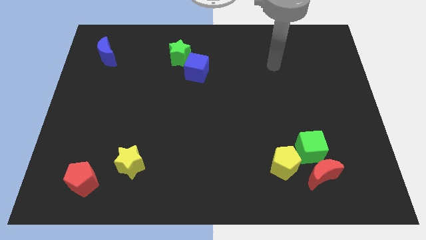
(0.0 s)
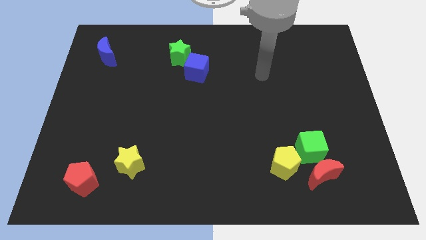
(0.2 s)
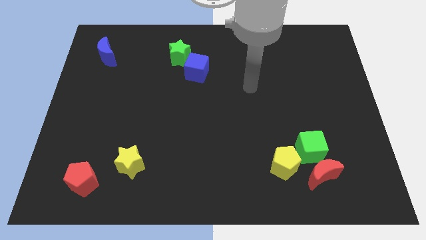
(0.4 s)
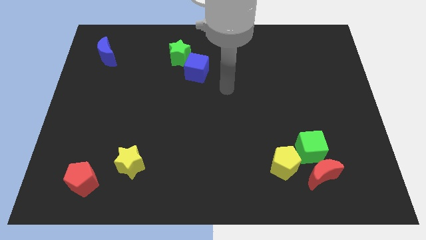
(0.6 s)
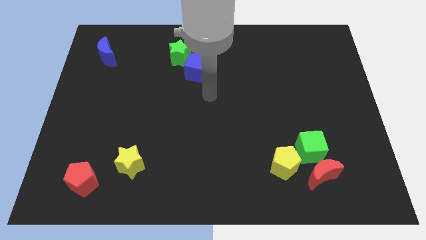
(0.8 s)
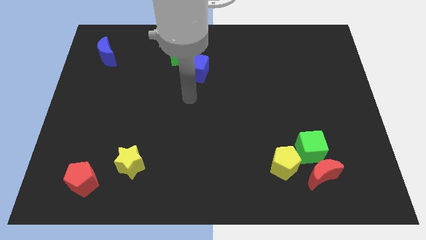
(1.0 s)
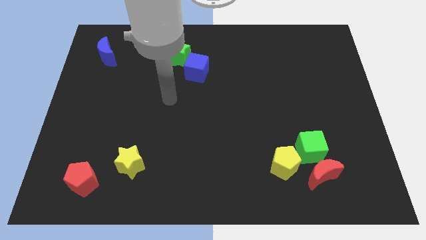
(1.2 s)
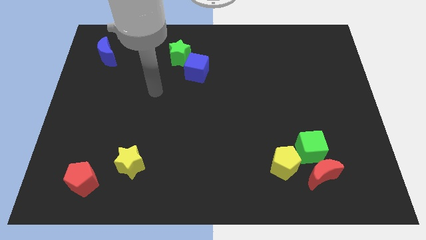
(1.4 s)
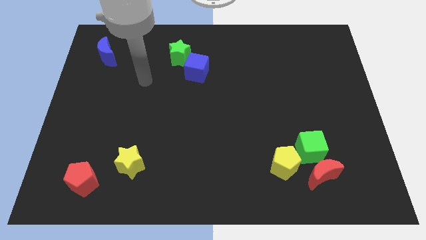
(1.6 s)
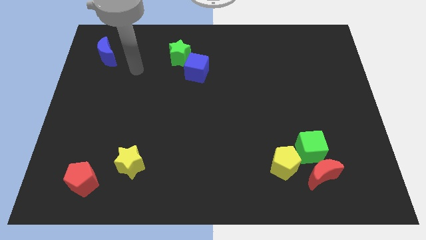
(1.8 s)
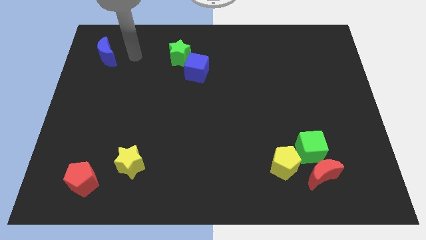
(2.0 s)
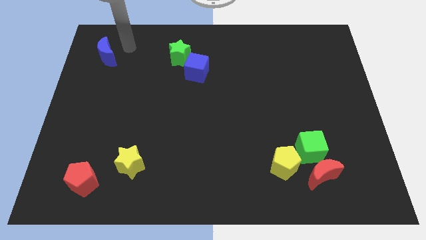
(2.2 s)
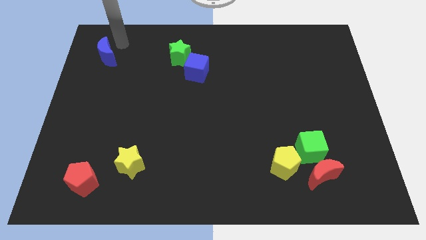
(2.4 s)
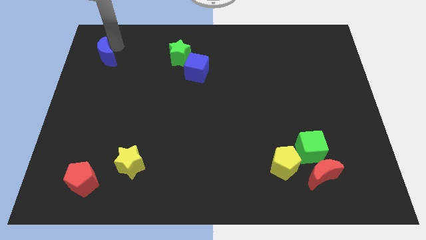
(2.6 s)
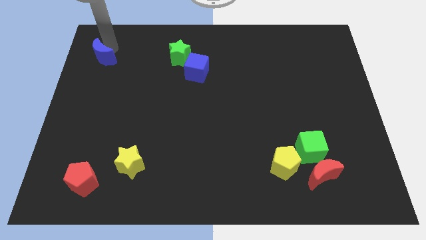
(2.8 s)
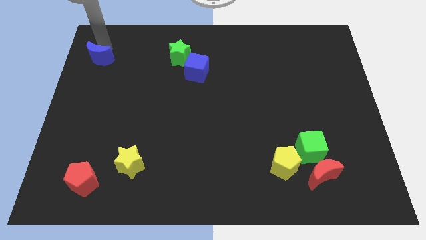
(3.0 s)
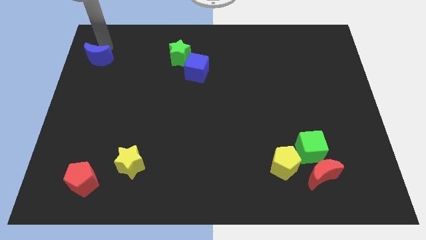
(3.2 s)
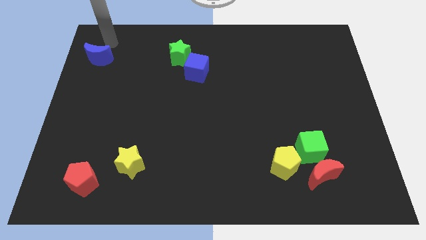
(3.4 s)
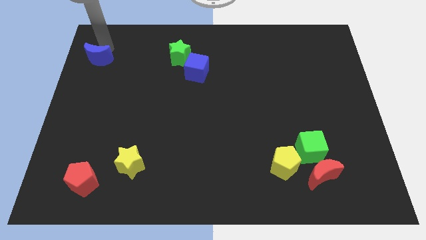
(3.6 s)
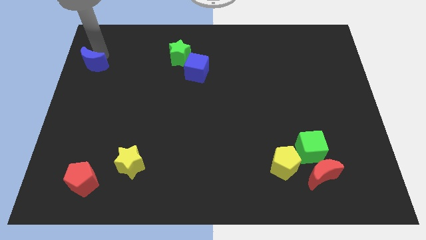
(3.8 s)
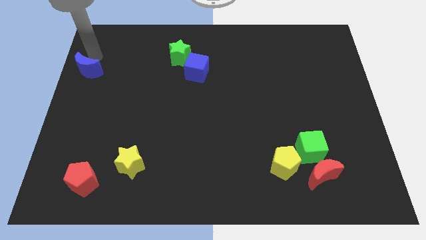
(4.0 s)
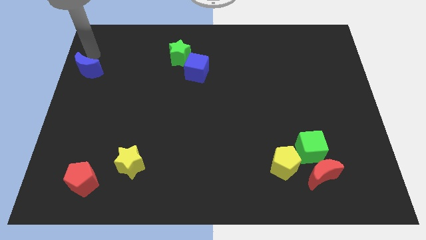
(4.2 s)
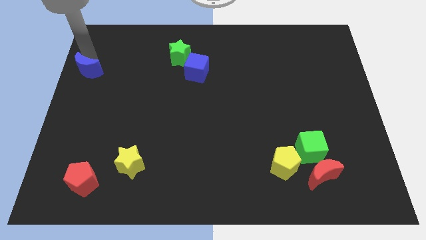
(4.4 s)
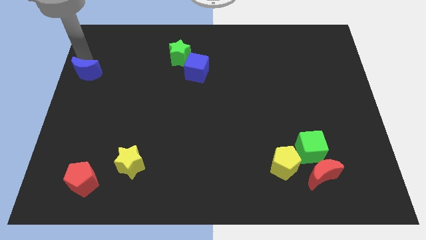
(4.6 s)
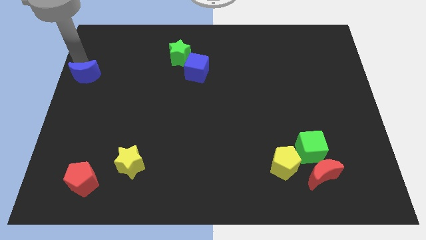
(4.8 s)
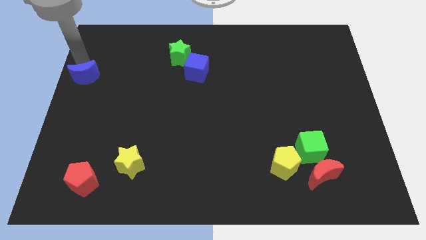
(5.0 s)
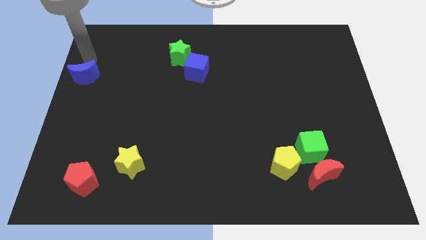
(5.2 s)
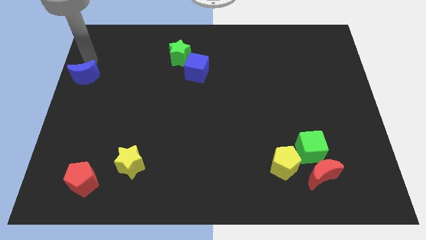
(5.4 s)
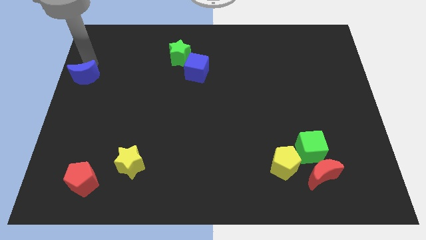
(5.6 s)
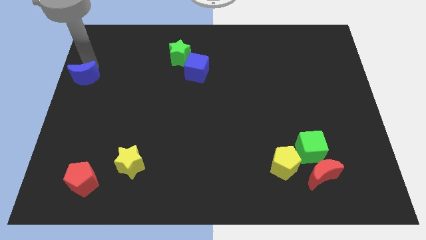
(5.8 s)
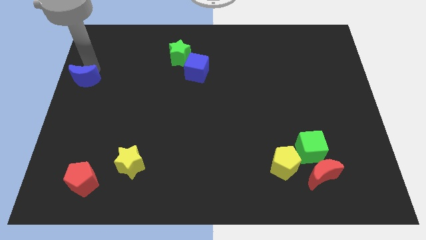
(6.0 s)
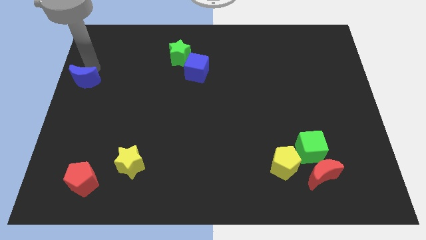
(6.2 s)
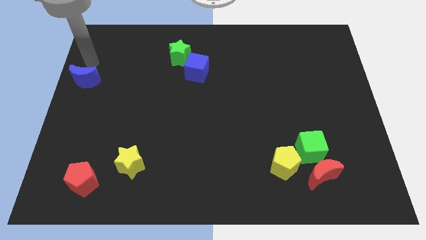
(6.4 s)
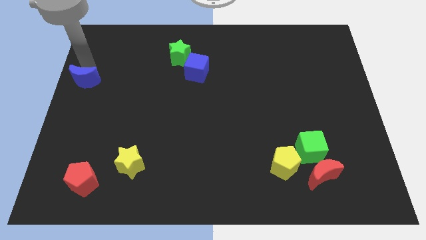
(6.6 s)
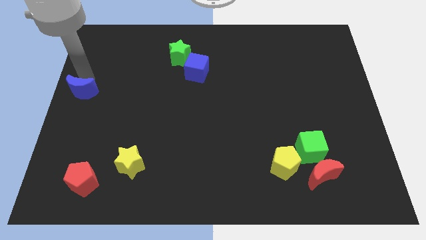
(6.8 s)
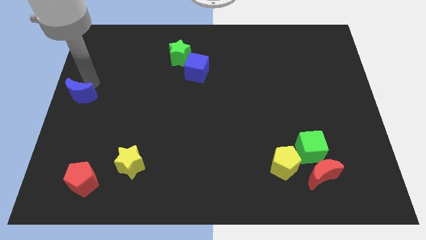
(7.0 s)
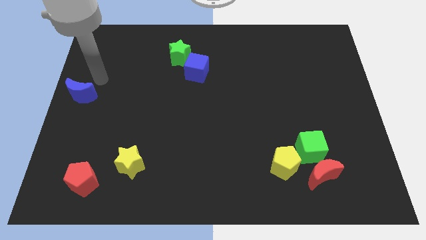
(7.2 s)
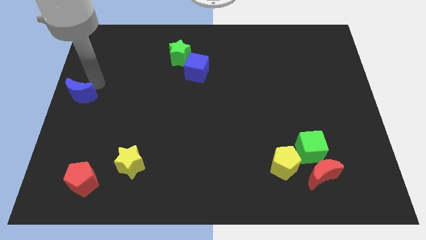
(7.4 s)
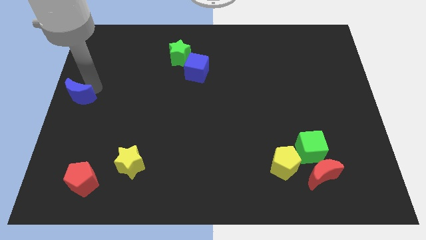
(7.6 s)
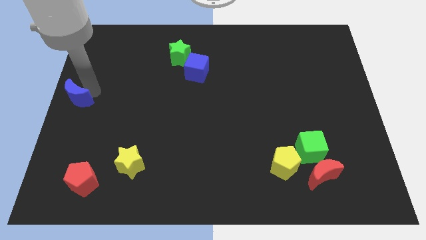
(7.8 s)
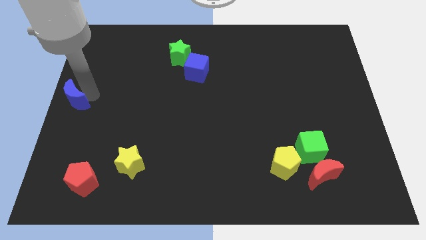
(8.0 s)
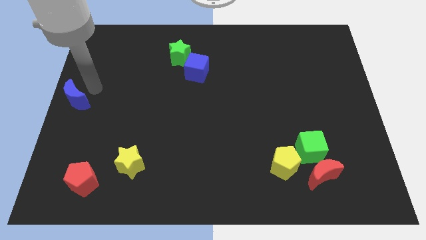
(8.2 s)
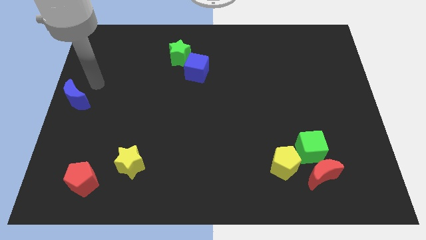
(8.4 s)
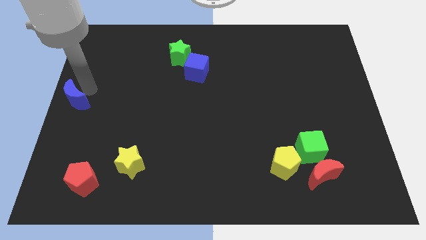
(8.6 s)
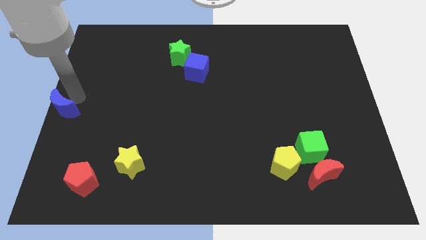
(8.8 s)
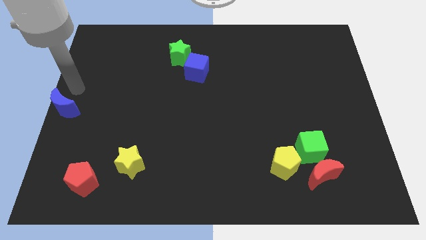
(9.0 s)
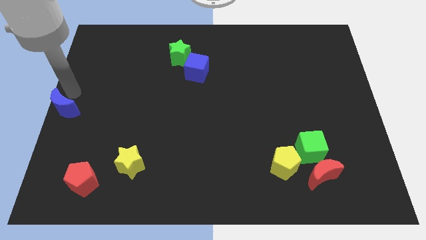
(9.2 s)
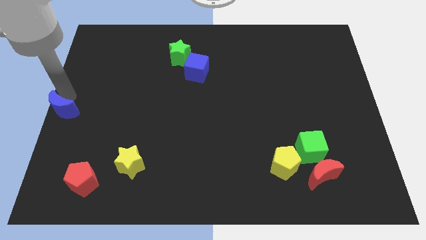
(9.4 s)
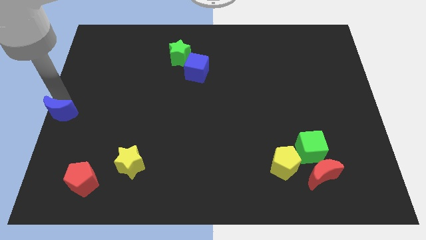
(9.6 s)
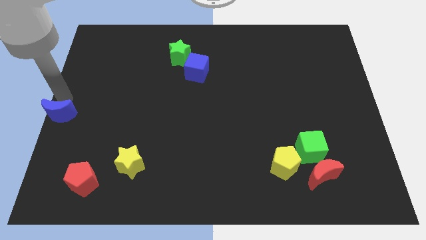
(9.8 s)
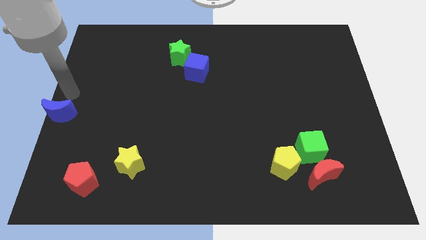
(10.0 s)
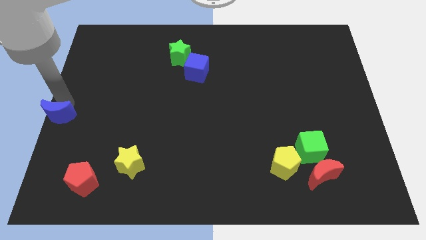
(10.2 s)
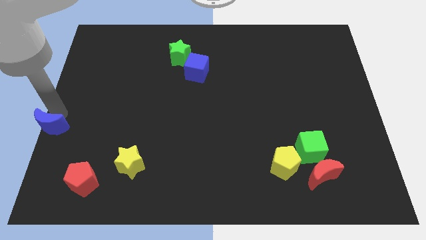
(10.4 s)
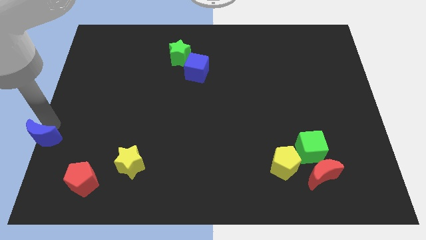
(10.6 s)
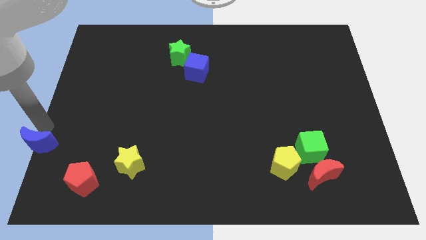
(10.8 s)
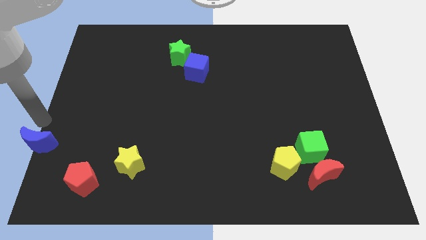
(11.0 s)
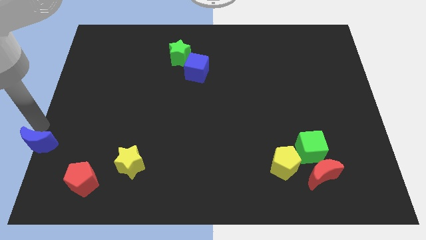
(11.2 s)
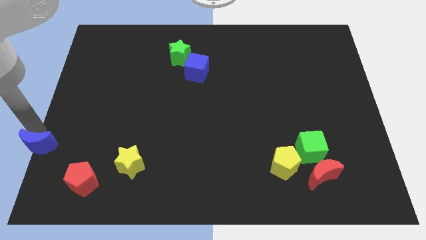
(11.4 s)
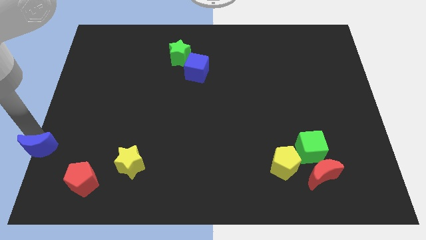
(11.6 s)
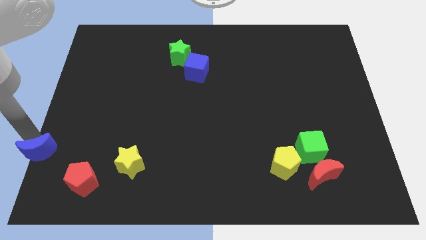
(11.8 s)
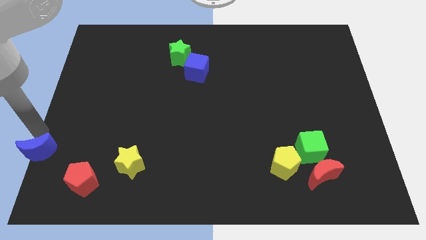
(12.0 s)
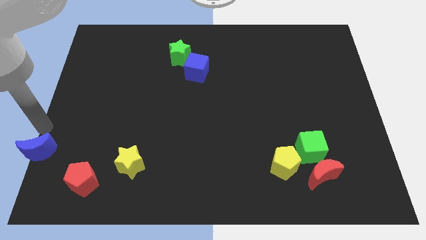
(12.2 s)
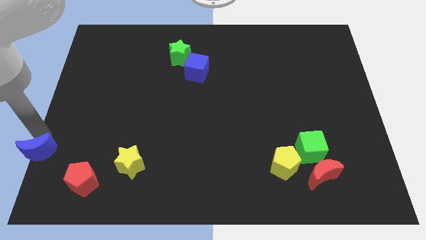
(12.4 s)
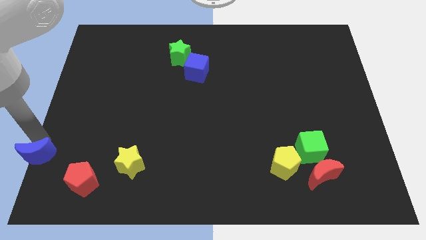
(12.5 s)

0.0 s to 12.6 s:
push the blue moon to the bottom left corner
